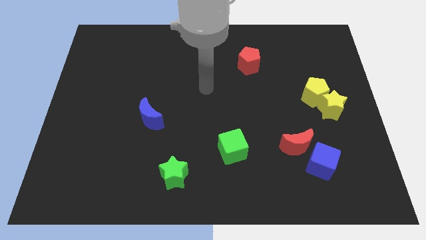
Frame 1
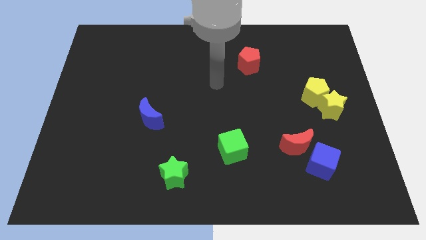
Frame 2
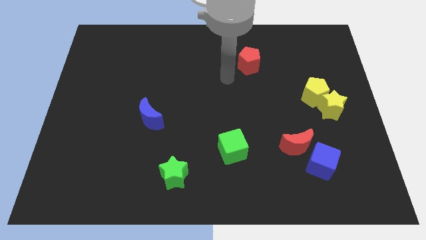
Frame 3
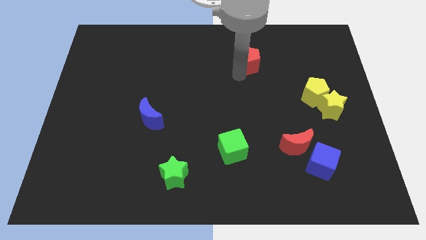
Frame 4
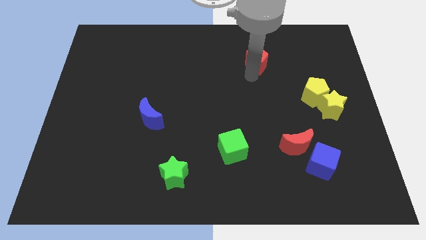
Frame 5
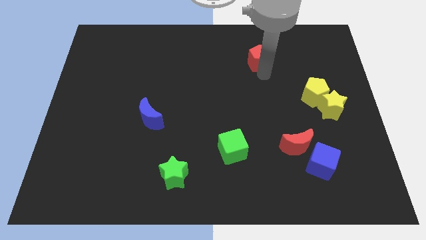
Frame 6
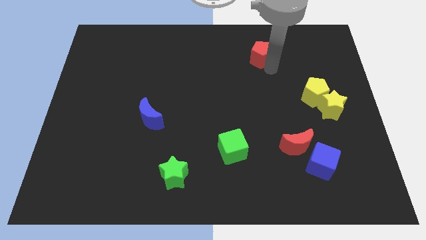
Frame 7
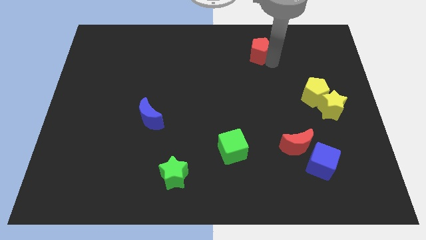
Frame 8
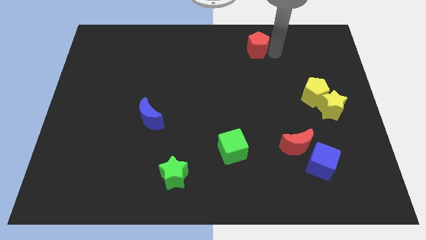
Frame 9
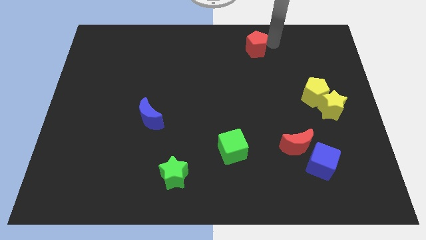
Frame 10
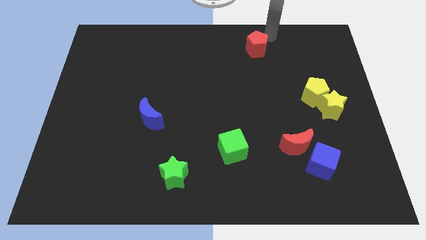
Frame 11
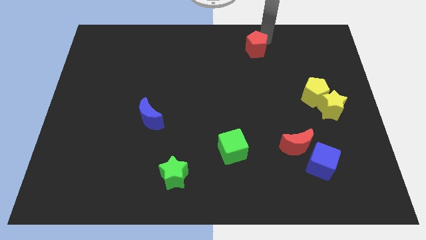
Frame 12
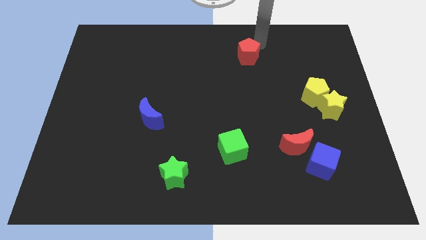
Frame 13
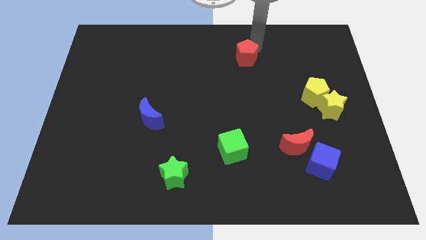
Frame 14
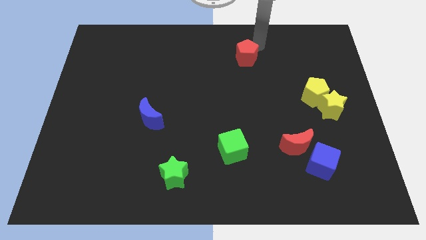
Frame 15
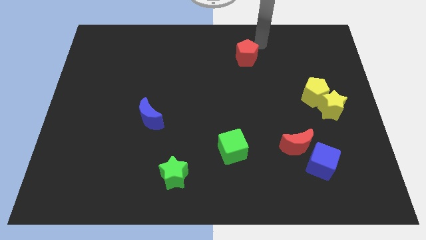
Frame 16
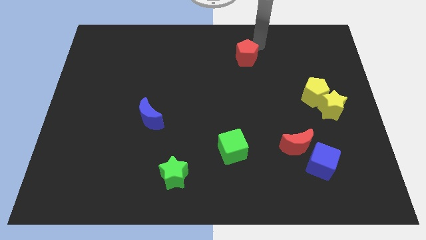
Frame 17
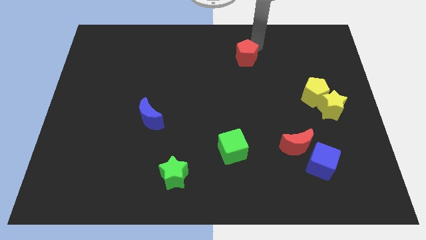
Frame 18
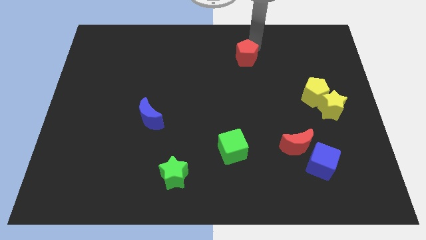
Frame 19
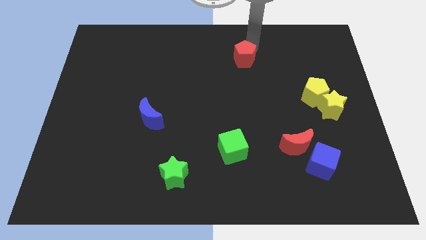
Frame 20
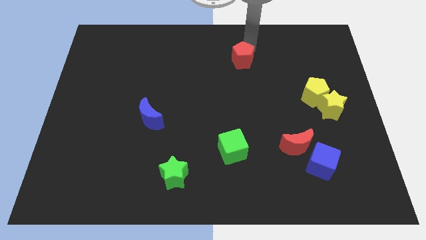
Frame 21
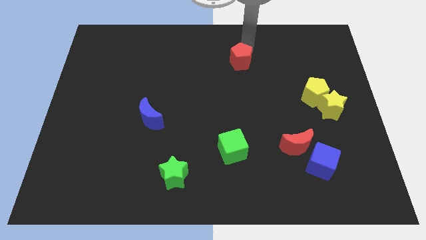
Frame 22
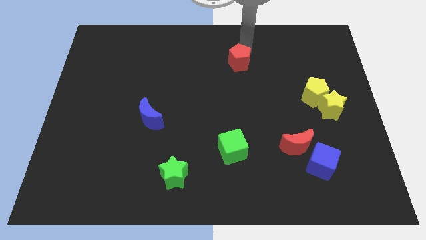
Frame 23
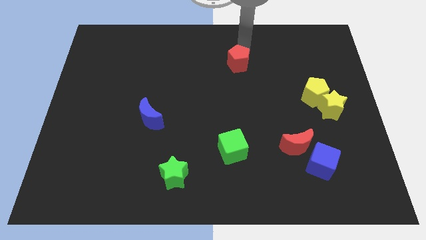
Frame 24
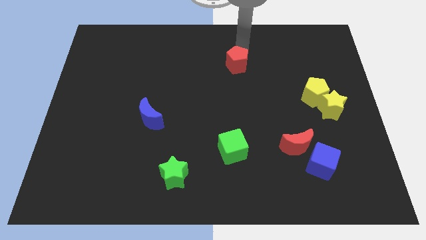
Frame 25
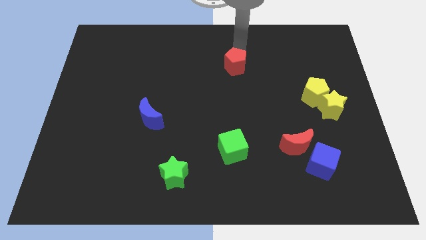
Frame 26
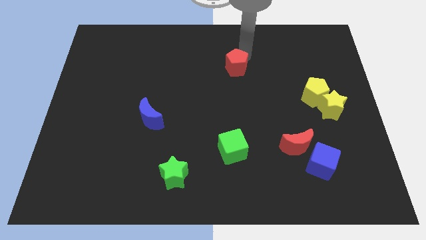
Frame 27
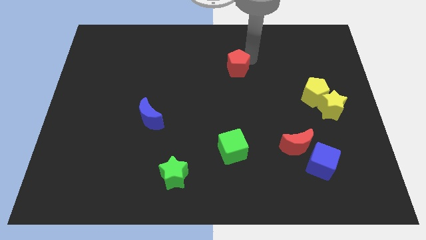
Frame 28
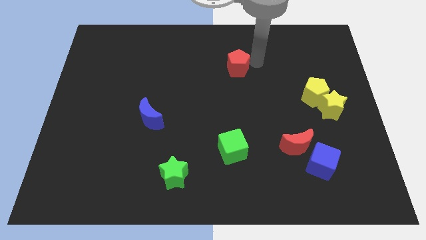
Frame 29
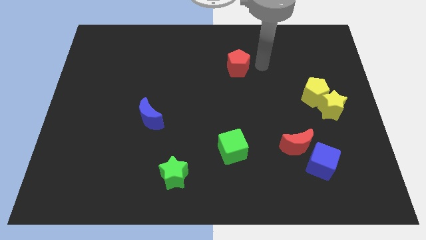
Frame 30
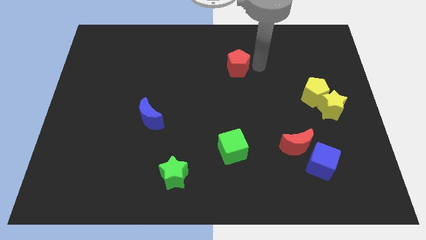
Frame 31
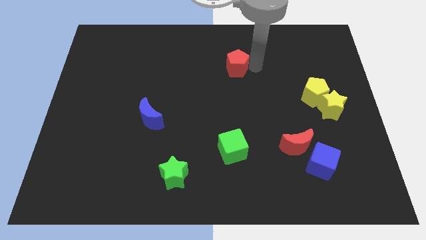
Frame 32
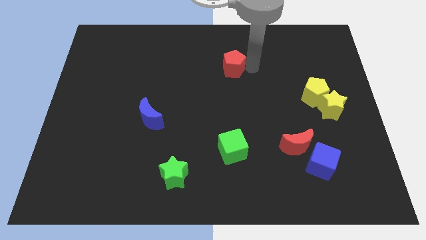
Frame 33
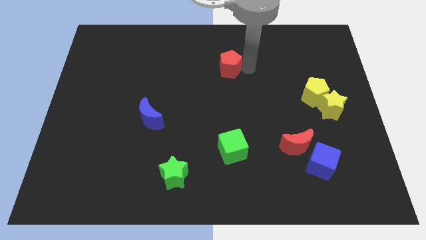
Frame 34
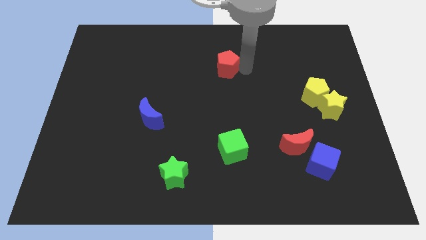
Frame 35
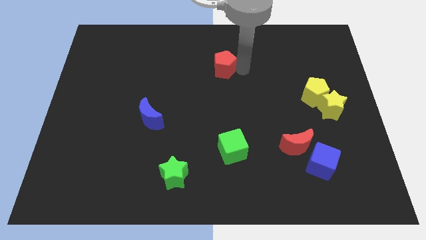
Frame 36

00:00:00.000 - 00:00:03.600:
slightly push the red pentagon to the left

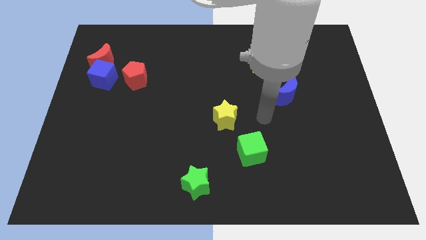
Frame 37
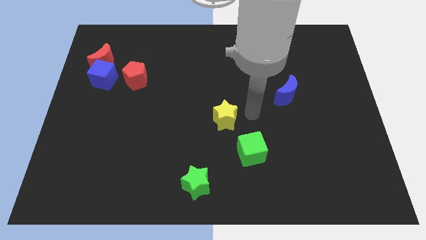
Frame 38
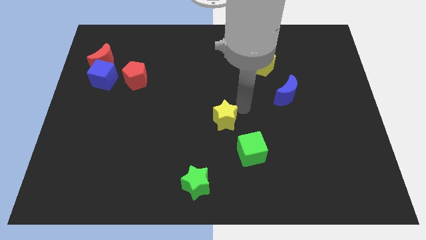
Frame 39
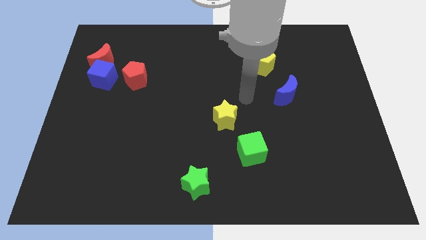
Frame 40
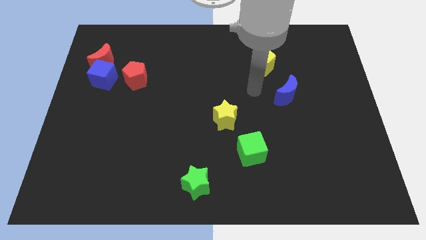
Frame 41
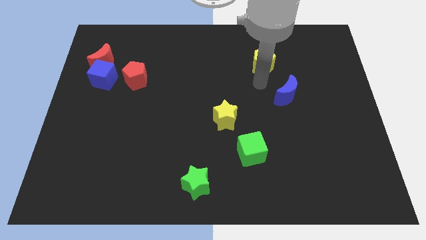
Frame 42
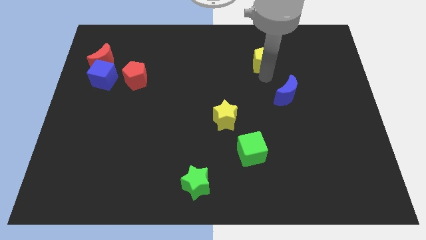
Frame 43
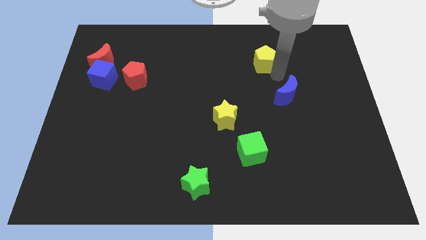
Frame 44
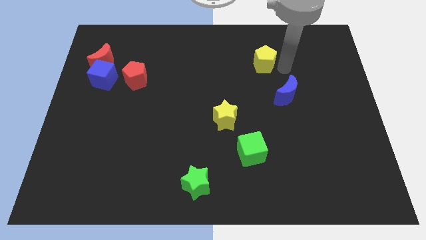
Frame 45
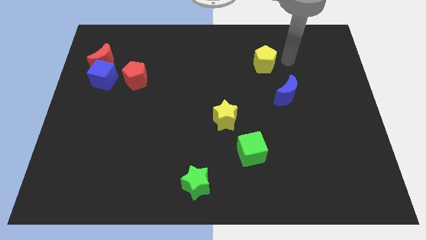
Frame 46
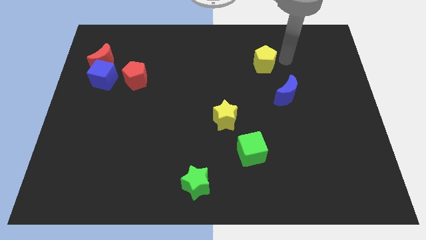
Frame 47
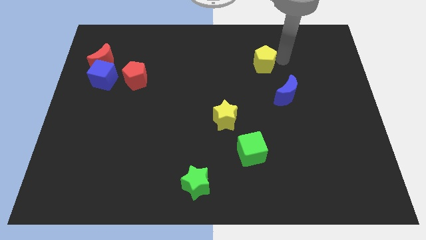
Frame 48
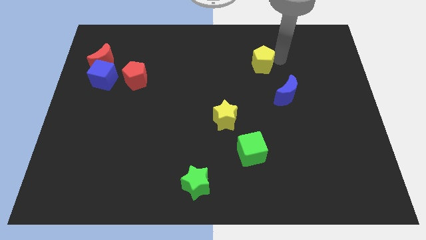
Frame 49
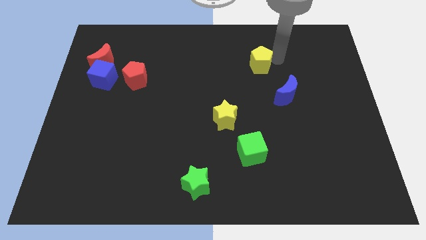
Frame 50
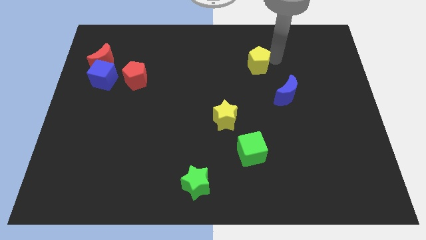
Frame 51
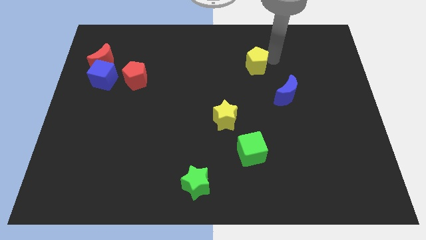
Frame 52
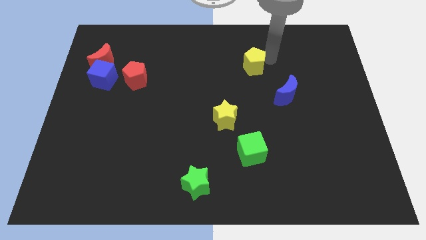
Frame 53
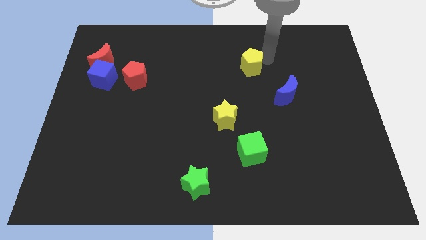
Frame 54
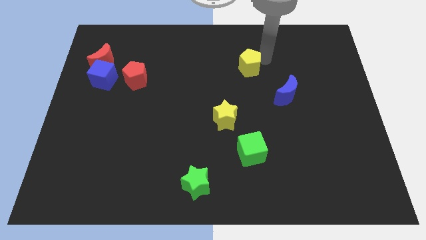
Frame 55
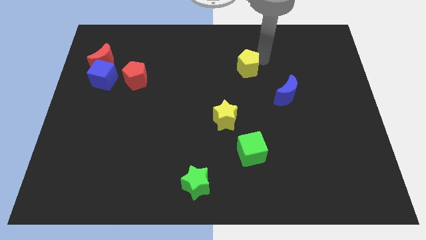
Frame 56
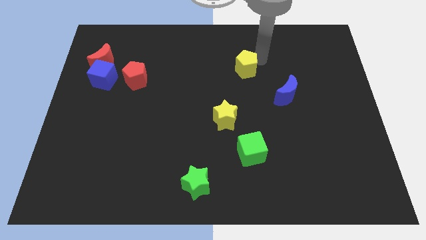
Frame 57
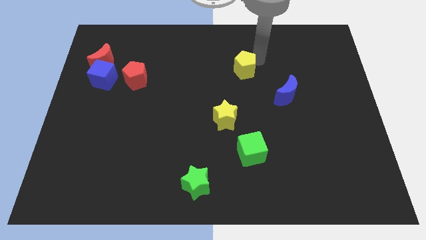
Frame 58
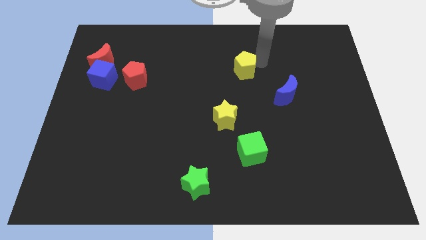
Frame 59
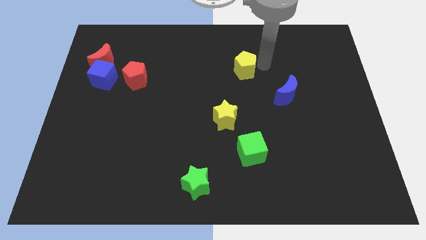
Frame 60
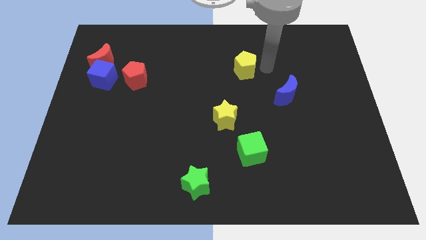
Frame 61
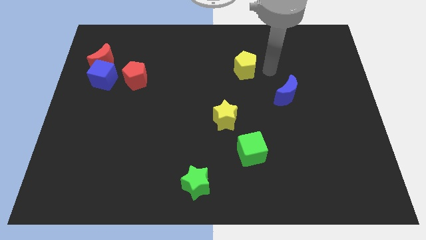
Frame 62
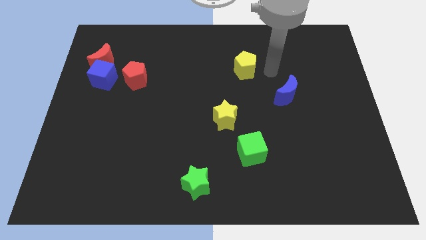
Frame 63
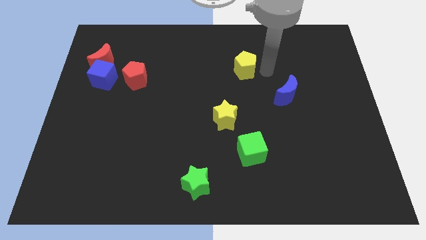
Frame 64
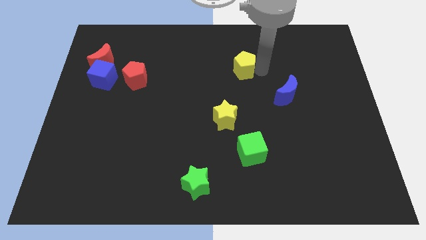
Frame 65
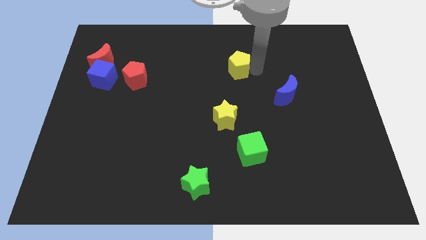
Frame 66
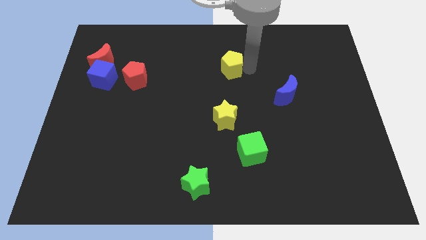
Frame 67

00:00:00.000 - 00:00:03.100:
slightly move the yellow pentagon to the left

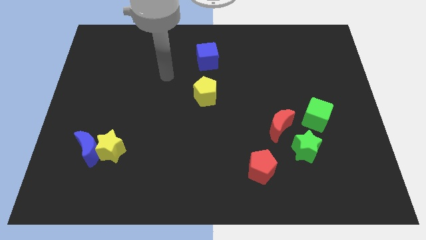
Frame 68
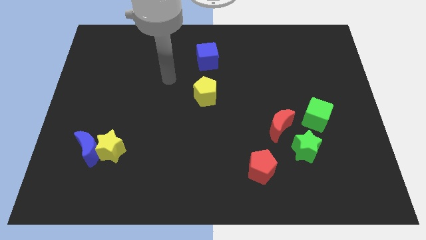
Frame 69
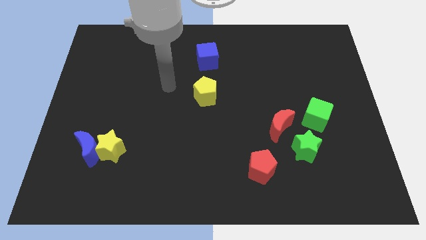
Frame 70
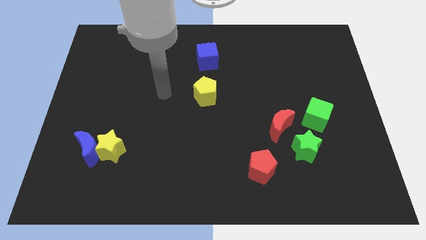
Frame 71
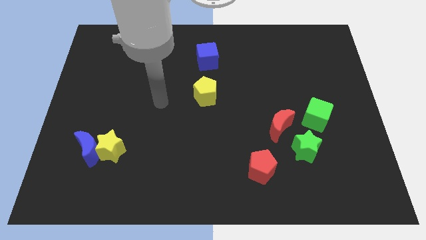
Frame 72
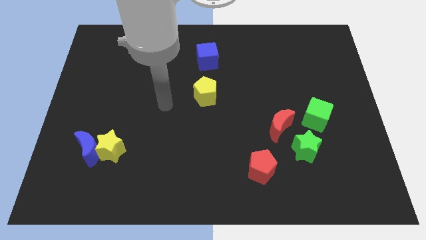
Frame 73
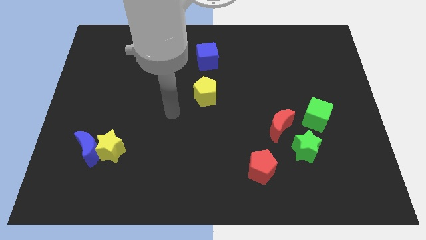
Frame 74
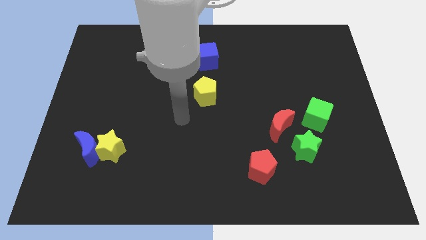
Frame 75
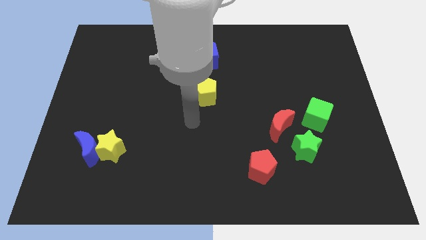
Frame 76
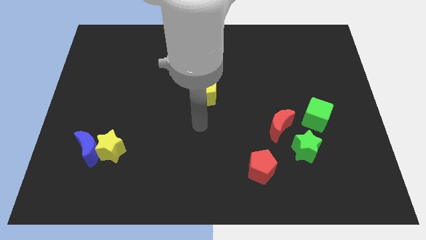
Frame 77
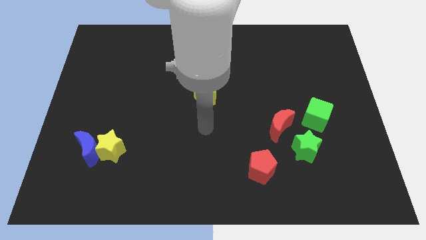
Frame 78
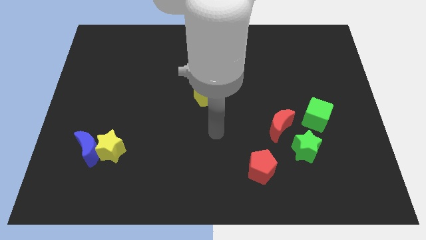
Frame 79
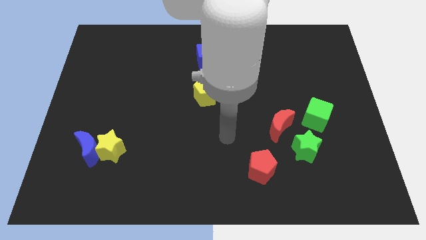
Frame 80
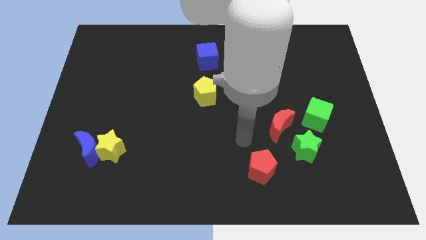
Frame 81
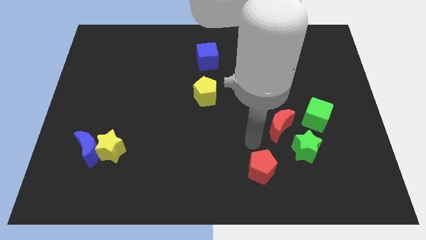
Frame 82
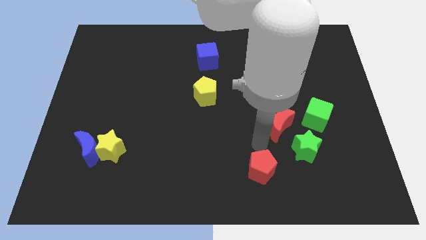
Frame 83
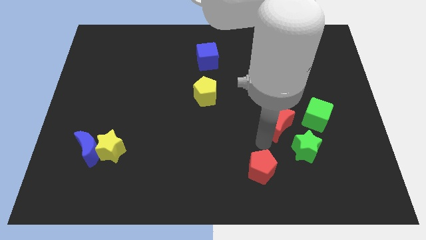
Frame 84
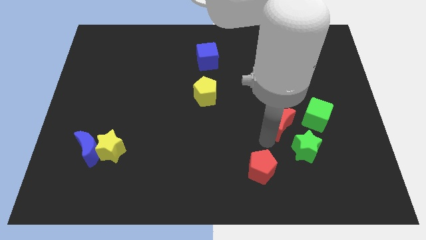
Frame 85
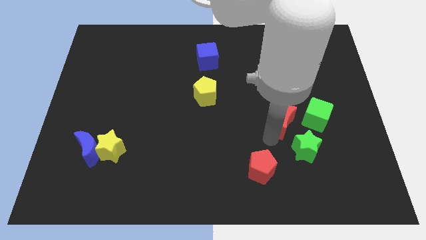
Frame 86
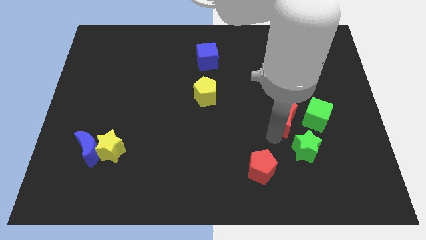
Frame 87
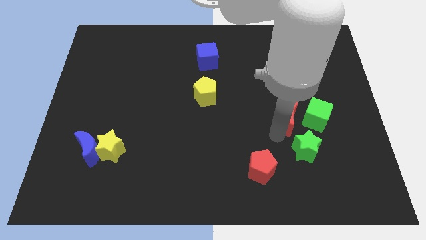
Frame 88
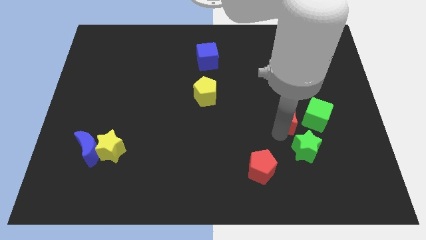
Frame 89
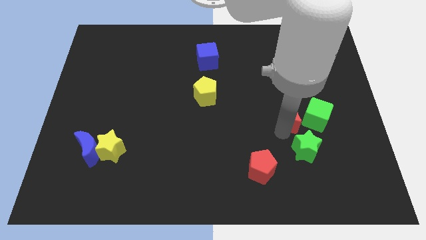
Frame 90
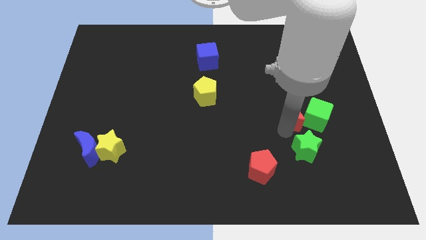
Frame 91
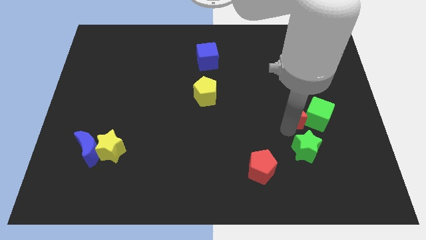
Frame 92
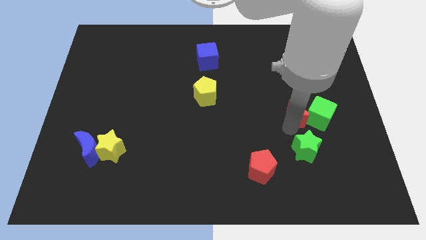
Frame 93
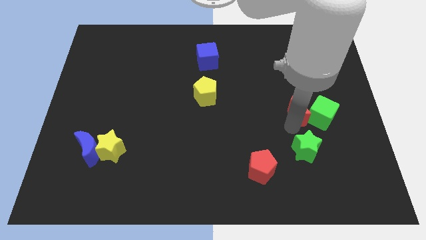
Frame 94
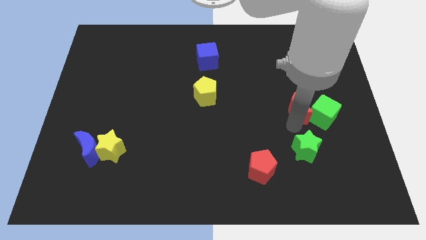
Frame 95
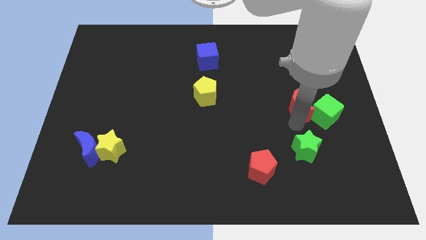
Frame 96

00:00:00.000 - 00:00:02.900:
slide the red moon upwards and then right slightly
